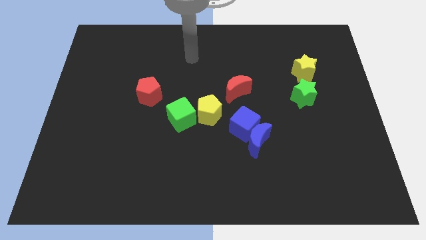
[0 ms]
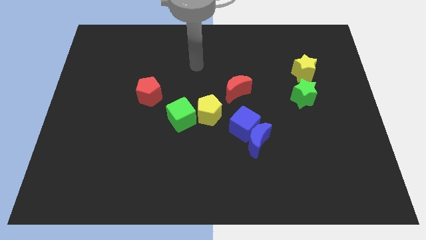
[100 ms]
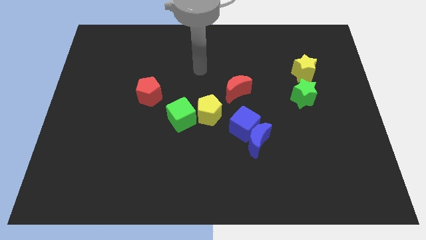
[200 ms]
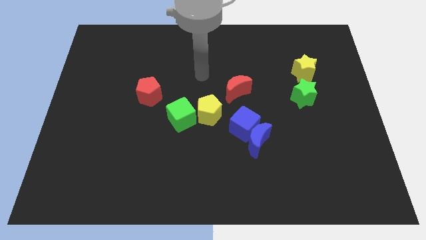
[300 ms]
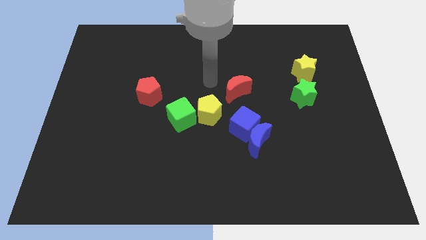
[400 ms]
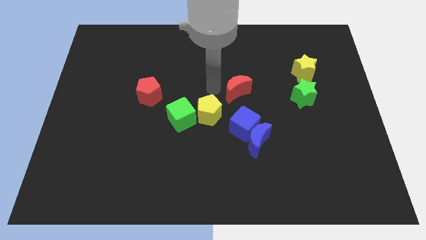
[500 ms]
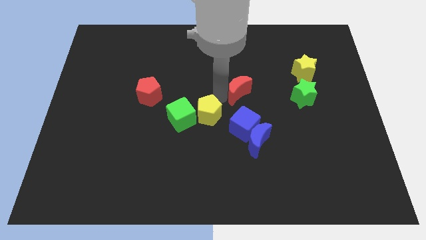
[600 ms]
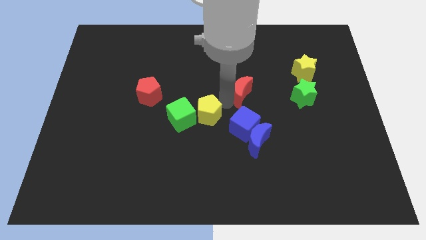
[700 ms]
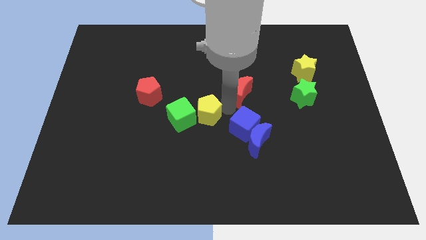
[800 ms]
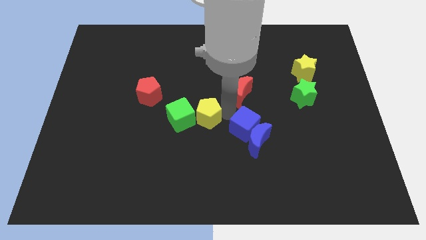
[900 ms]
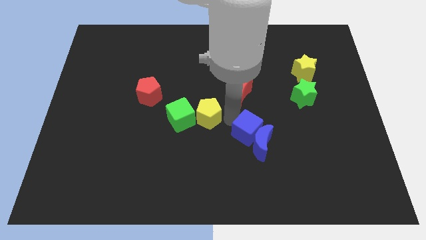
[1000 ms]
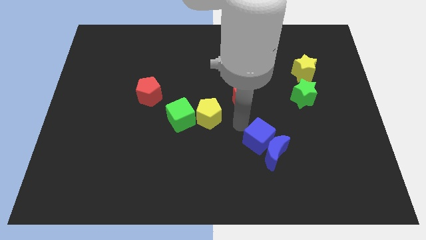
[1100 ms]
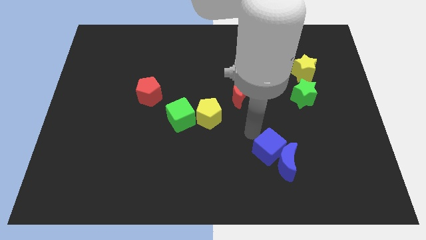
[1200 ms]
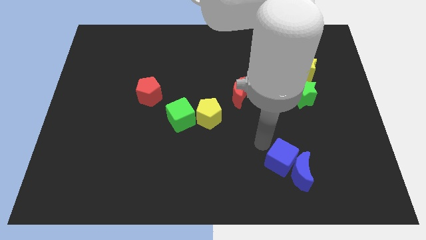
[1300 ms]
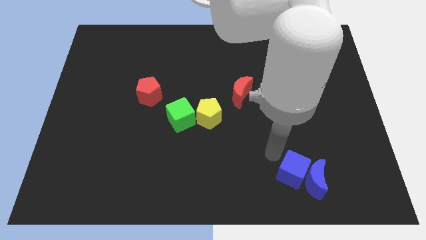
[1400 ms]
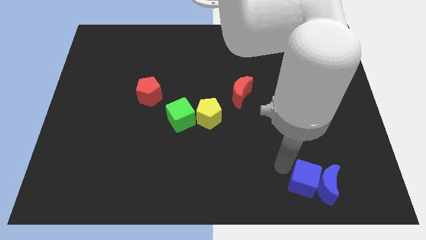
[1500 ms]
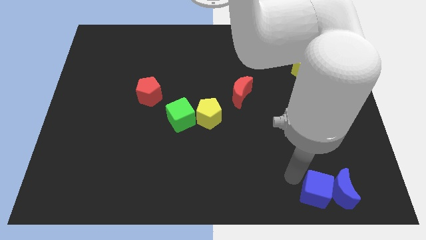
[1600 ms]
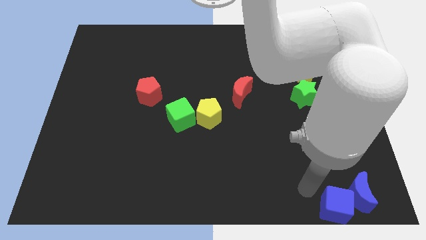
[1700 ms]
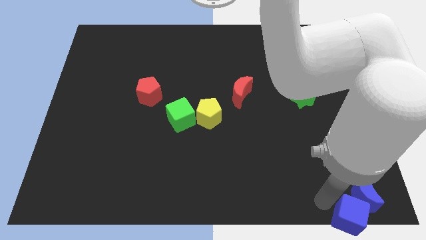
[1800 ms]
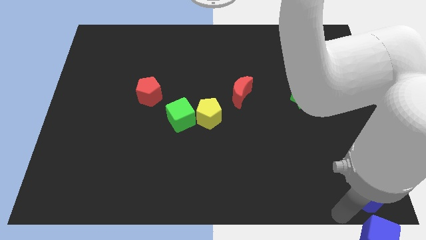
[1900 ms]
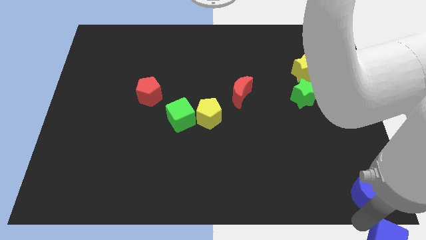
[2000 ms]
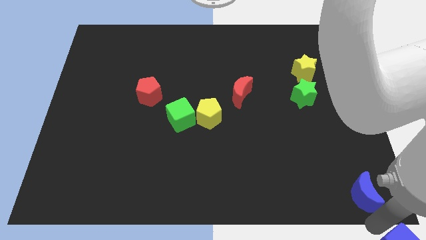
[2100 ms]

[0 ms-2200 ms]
move the blue moon away from the blue cube

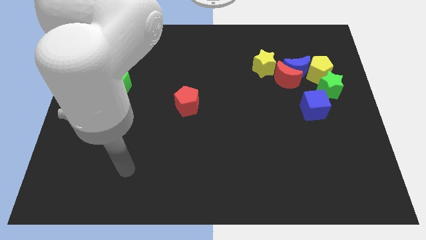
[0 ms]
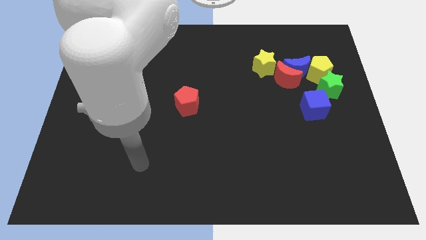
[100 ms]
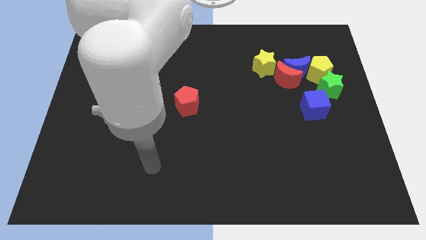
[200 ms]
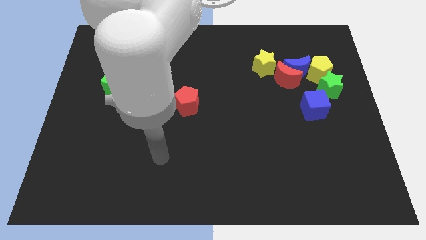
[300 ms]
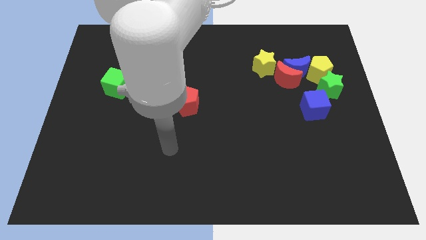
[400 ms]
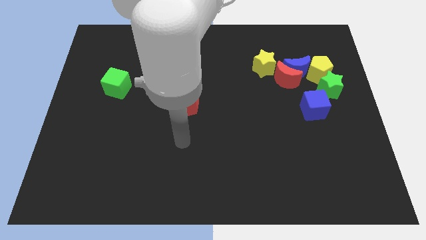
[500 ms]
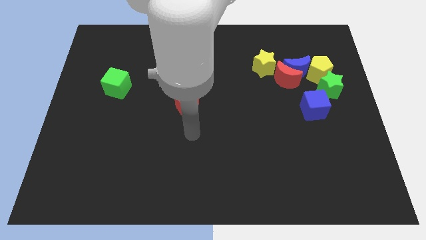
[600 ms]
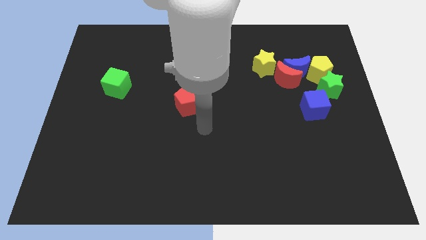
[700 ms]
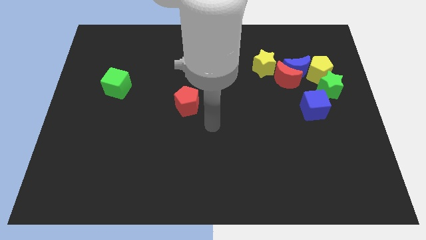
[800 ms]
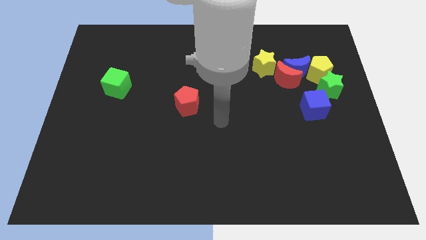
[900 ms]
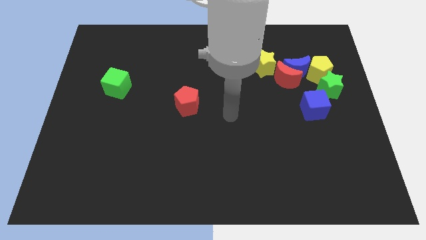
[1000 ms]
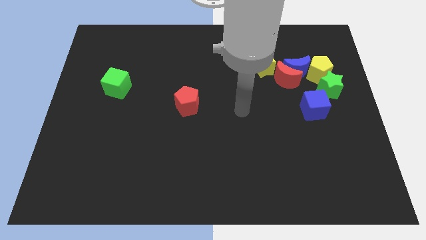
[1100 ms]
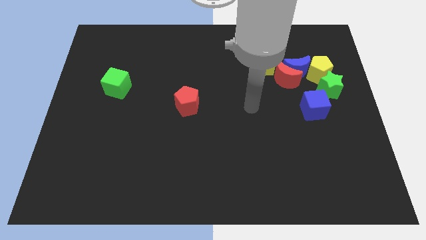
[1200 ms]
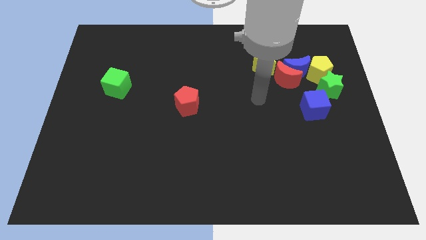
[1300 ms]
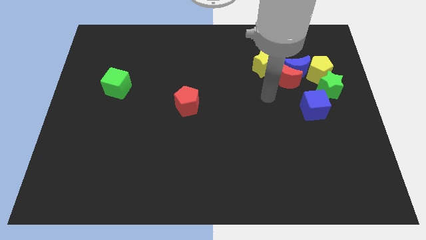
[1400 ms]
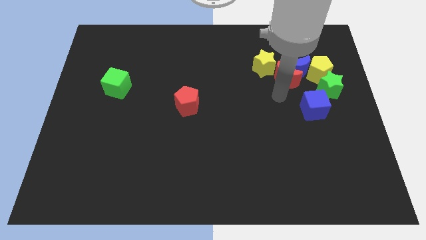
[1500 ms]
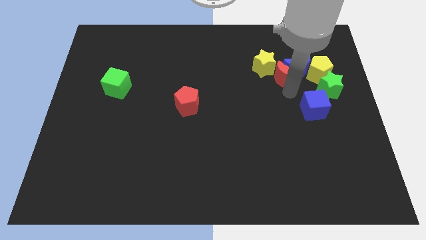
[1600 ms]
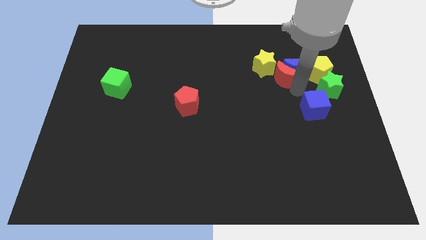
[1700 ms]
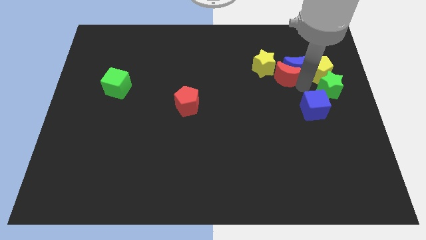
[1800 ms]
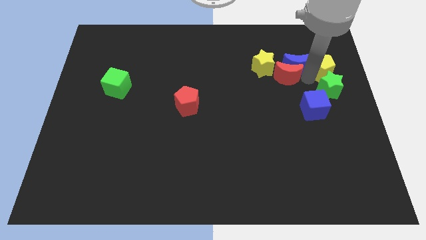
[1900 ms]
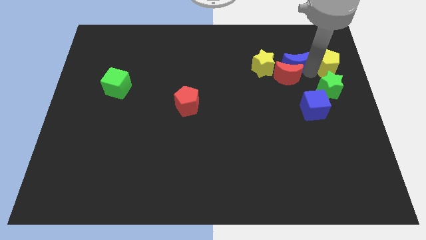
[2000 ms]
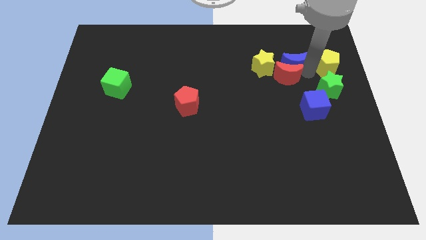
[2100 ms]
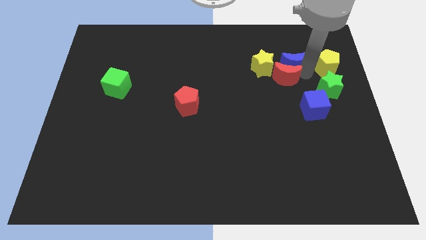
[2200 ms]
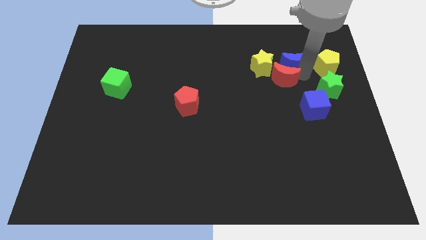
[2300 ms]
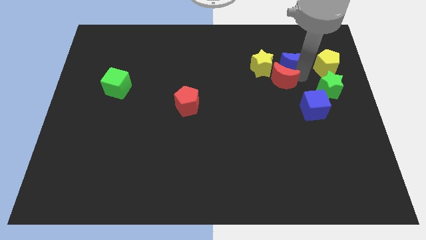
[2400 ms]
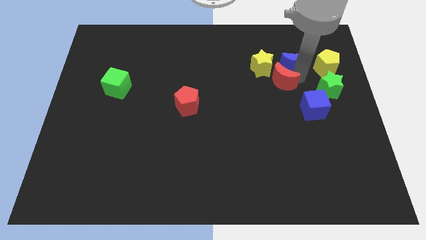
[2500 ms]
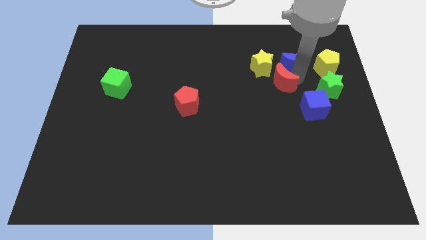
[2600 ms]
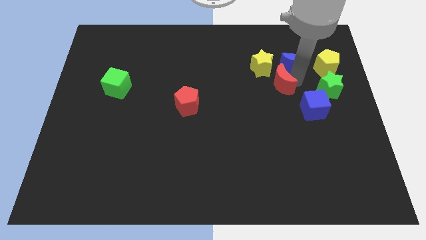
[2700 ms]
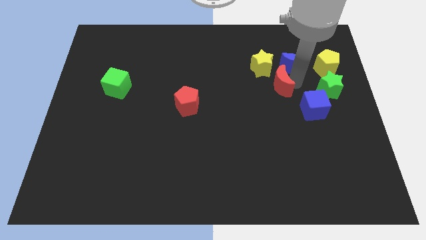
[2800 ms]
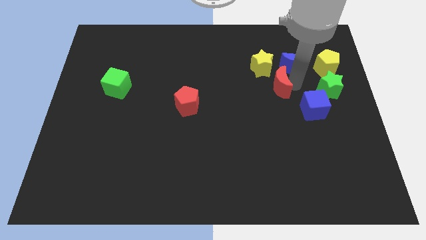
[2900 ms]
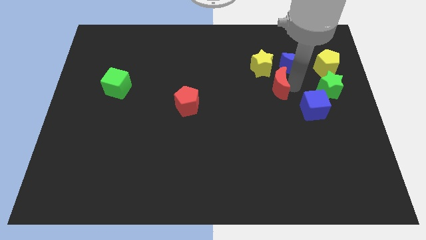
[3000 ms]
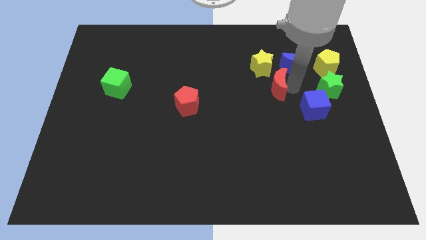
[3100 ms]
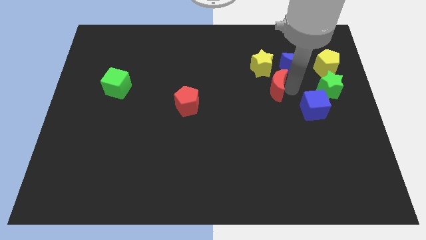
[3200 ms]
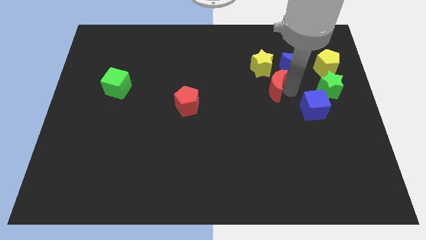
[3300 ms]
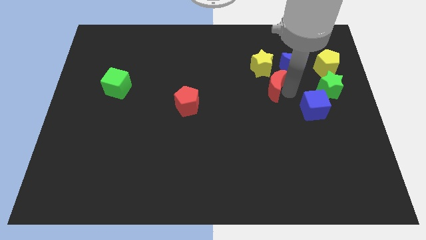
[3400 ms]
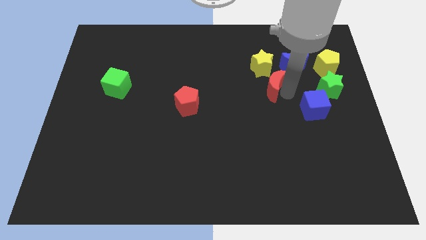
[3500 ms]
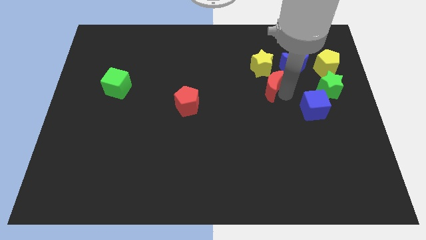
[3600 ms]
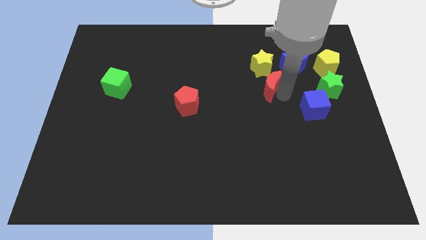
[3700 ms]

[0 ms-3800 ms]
separate the red moon from the blue moon, yellow star, and yellow pentagon

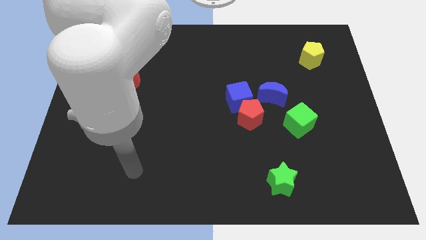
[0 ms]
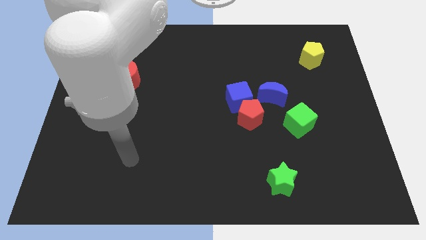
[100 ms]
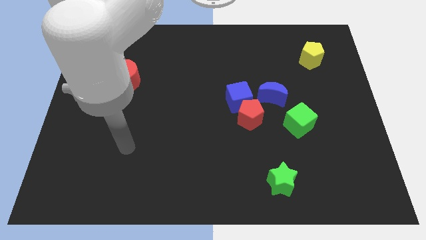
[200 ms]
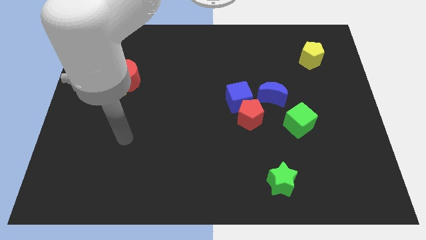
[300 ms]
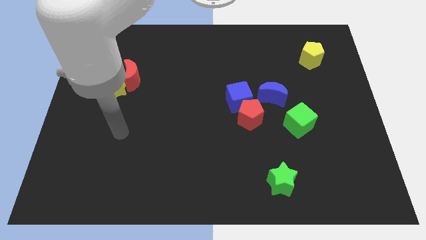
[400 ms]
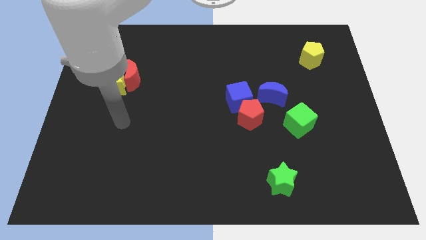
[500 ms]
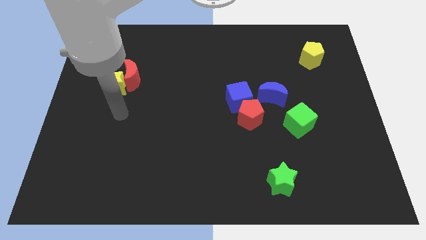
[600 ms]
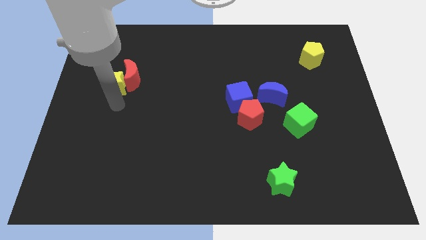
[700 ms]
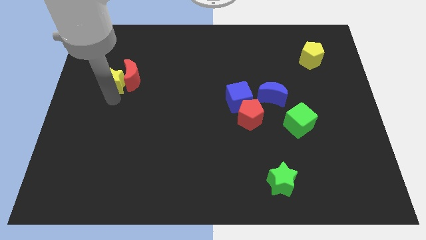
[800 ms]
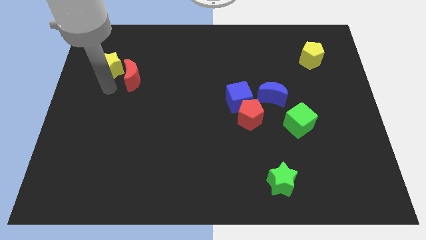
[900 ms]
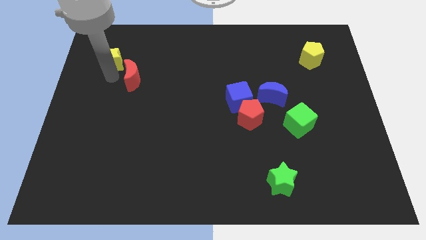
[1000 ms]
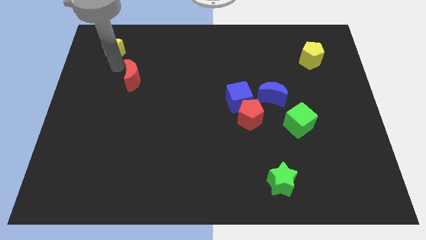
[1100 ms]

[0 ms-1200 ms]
separate the red moon from the yellow star

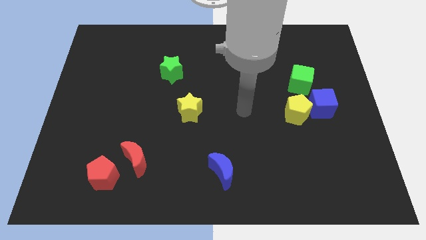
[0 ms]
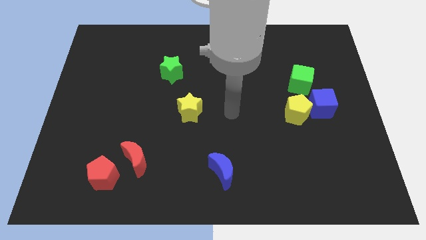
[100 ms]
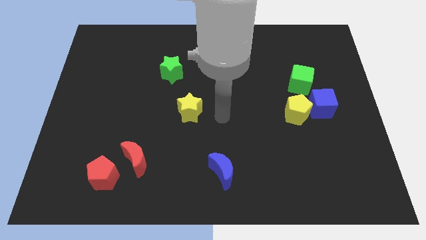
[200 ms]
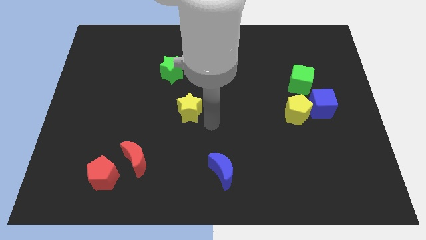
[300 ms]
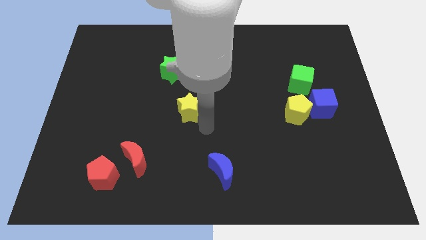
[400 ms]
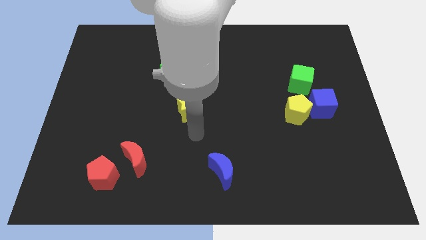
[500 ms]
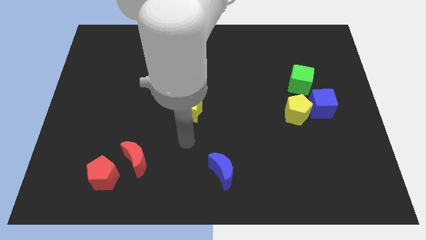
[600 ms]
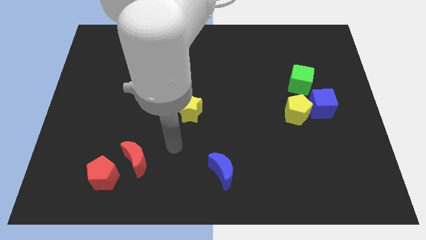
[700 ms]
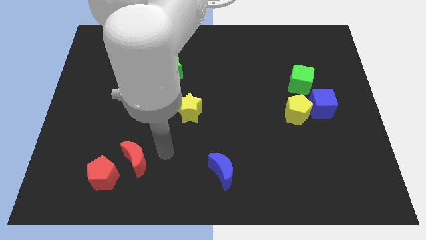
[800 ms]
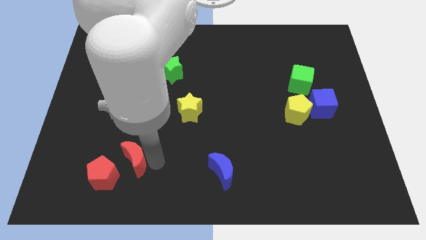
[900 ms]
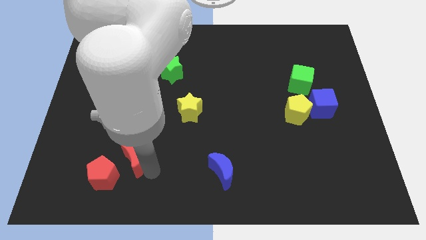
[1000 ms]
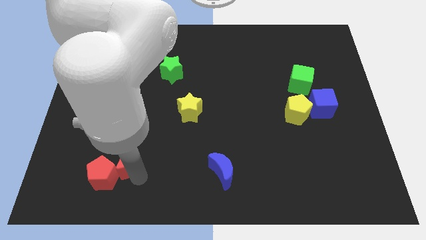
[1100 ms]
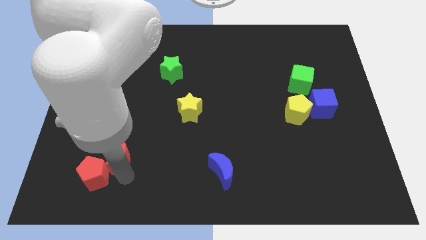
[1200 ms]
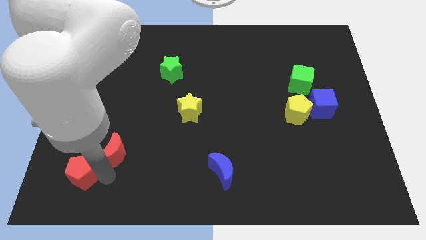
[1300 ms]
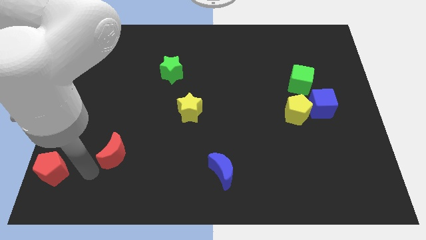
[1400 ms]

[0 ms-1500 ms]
pull the red moon apart from the red pentagon

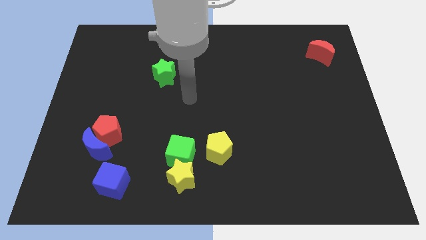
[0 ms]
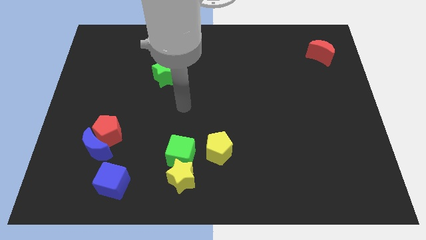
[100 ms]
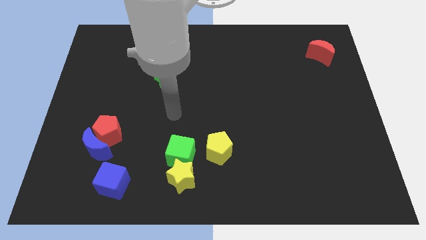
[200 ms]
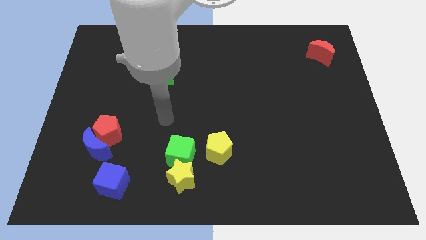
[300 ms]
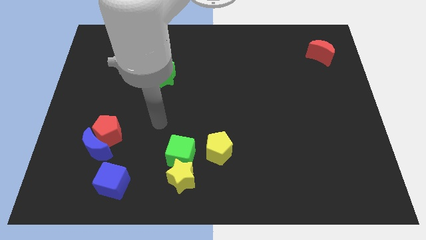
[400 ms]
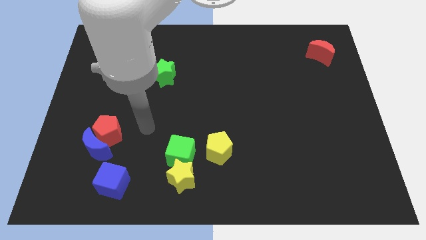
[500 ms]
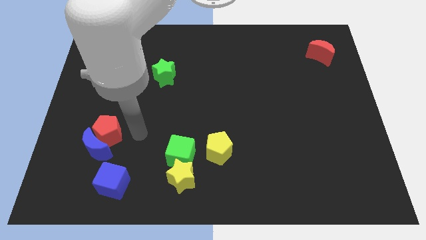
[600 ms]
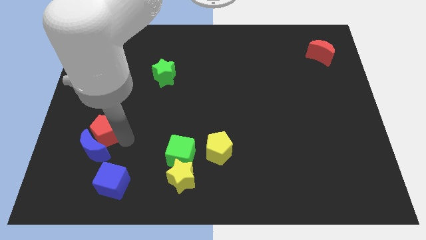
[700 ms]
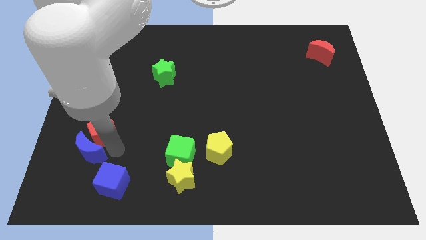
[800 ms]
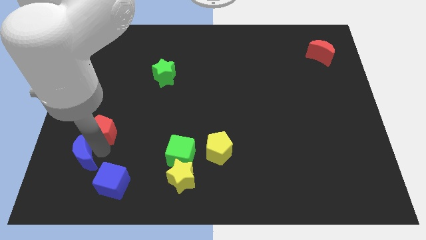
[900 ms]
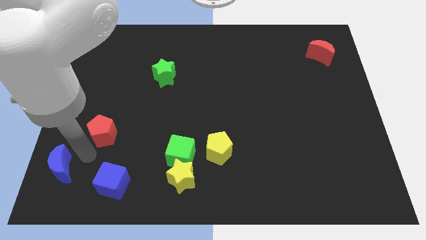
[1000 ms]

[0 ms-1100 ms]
separate the red pentagon from the blue moon
